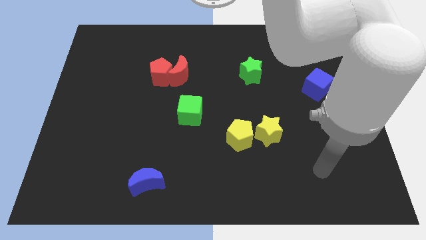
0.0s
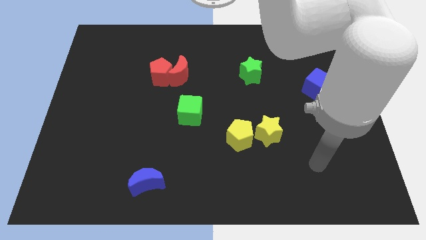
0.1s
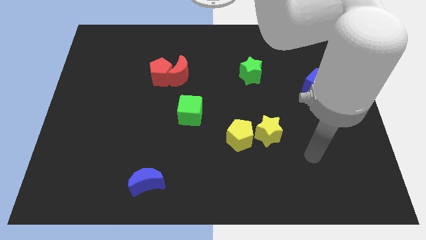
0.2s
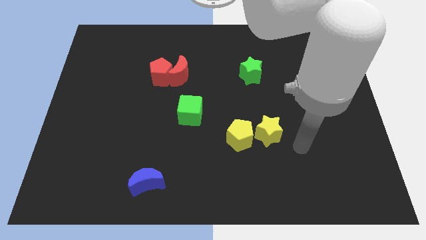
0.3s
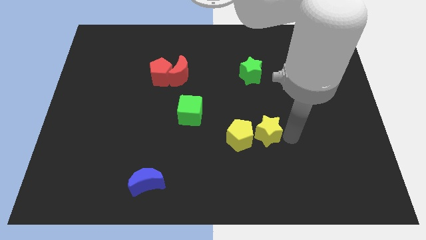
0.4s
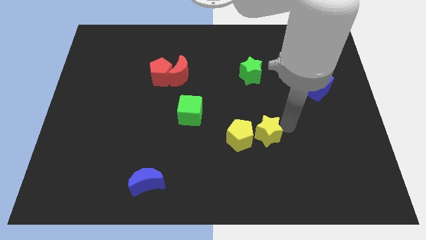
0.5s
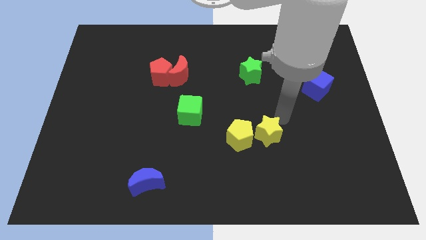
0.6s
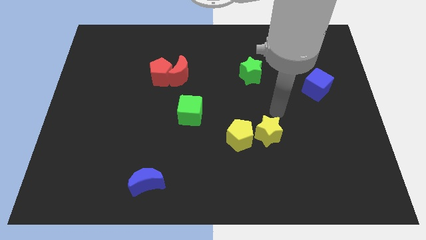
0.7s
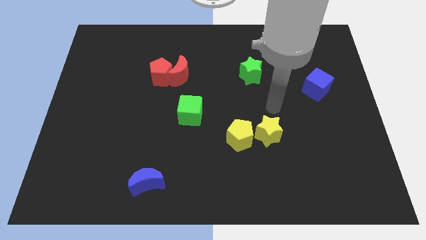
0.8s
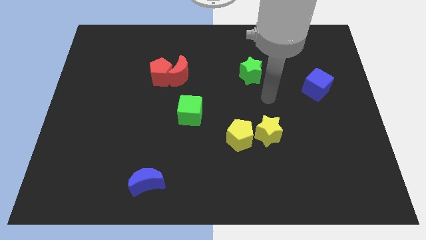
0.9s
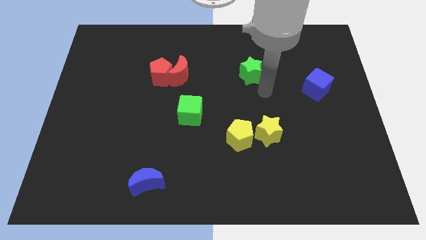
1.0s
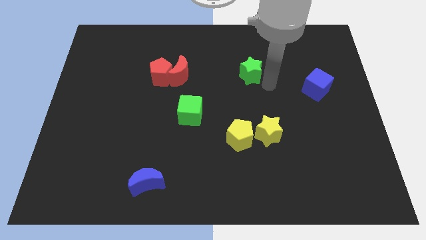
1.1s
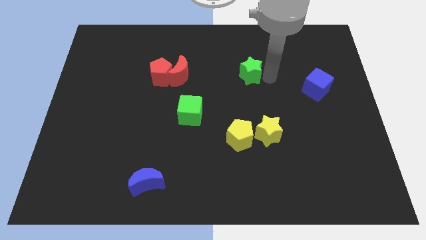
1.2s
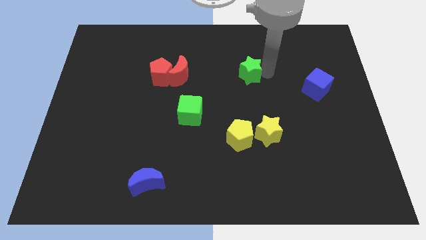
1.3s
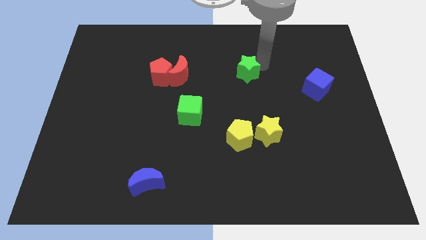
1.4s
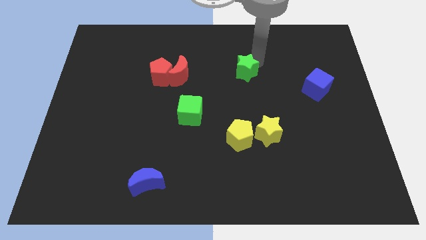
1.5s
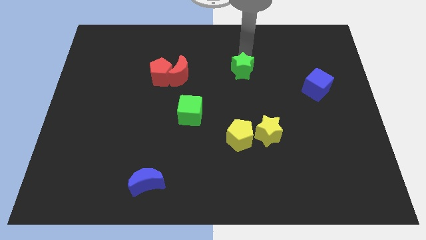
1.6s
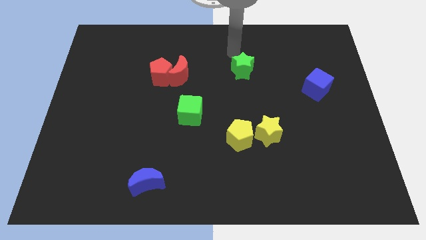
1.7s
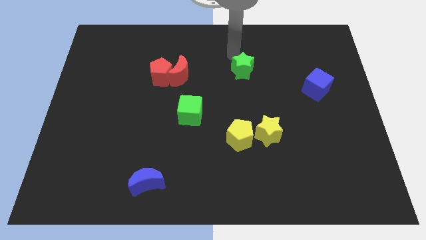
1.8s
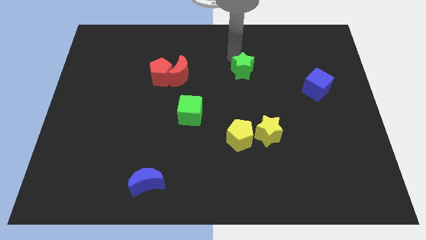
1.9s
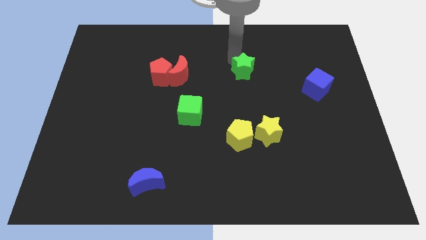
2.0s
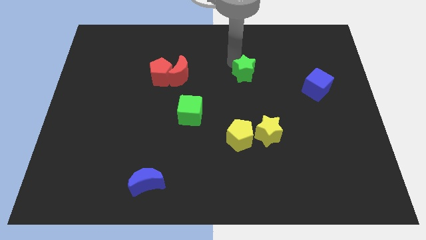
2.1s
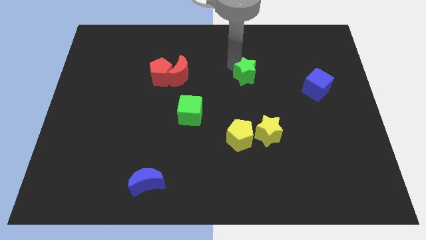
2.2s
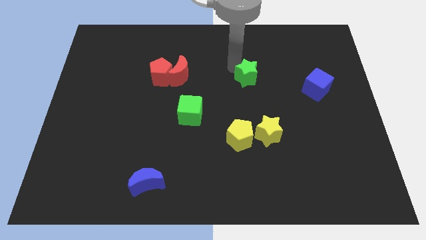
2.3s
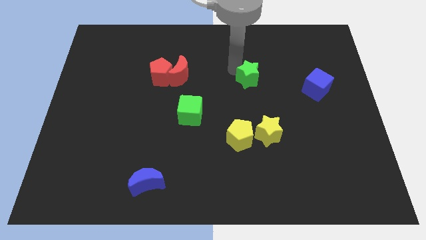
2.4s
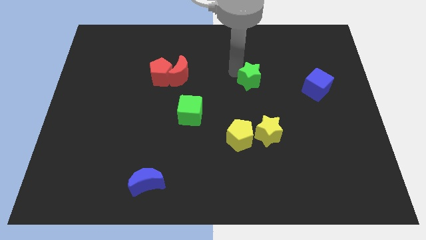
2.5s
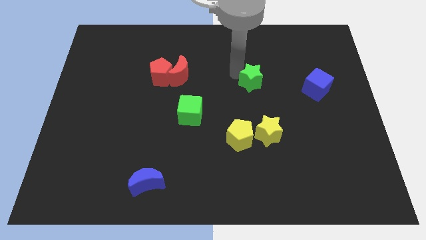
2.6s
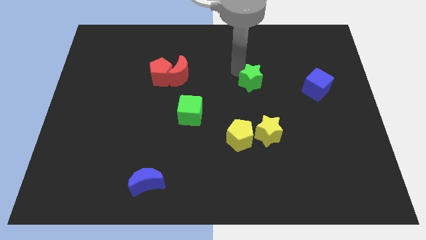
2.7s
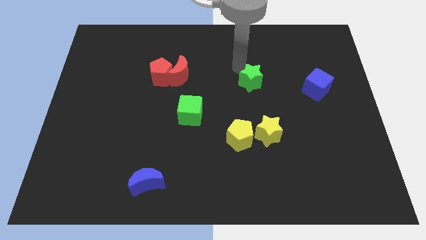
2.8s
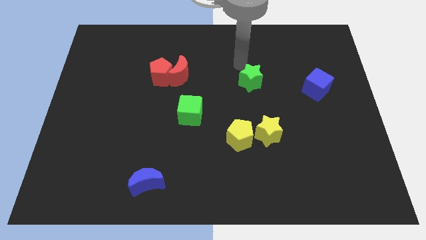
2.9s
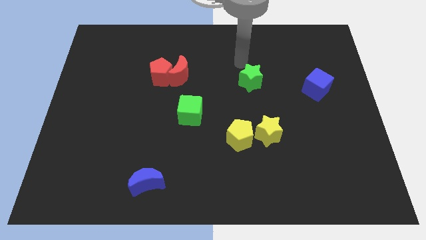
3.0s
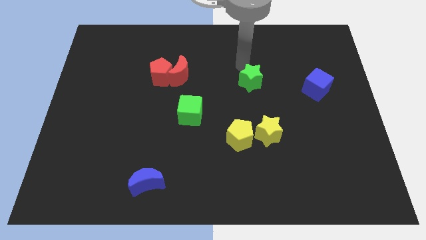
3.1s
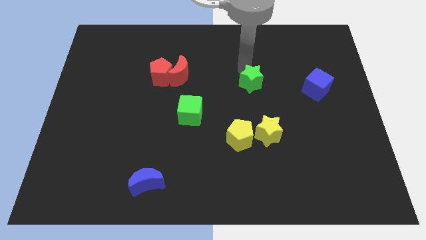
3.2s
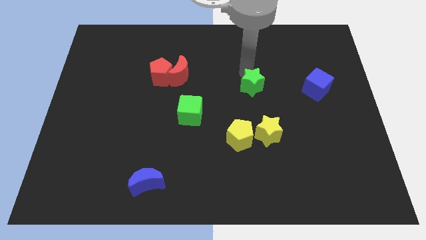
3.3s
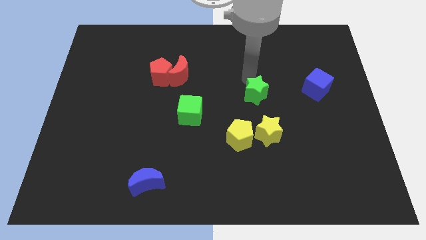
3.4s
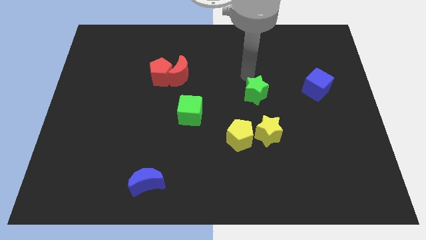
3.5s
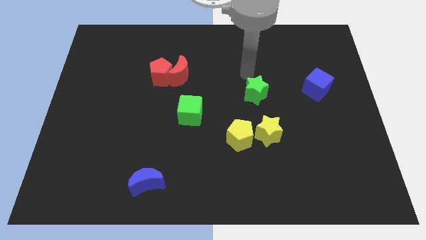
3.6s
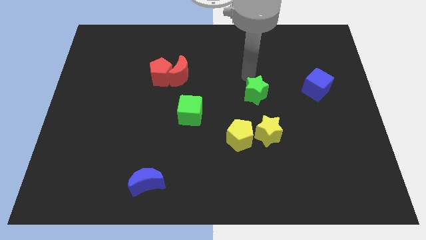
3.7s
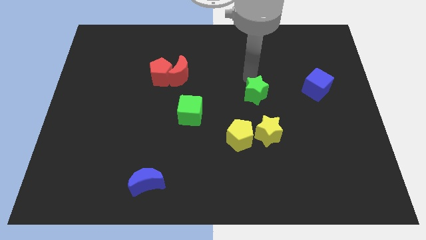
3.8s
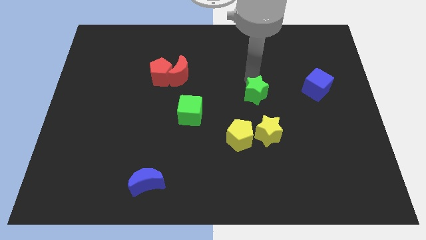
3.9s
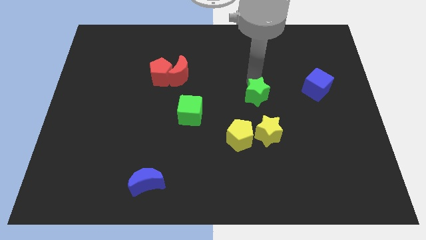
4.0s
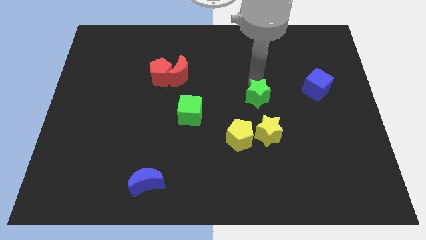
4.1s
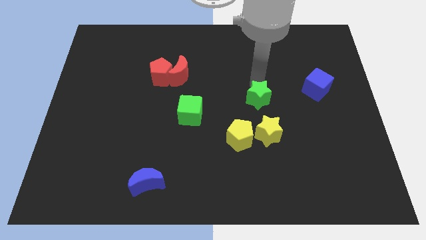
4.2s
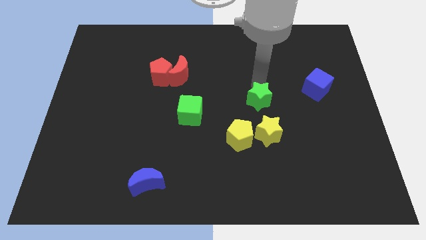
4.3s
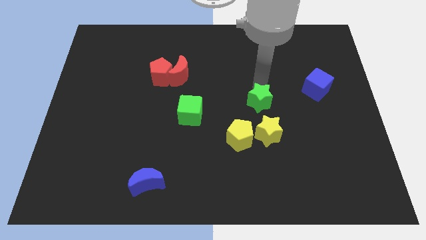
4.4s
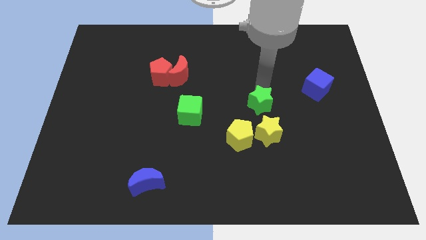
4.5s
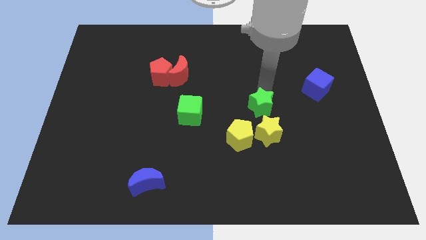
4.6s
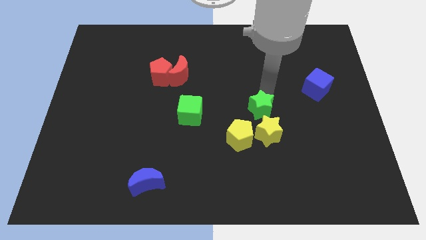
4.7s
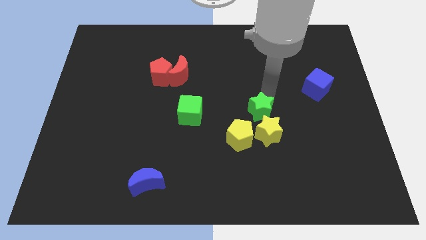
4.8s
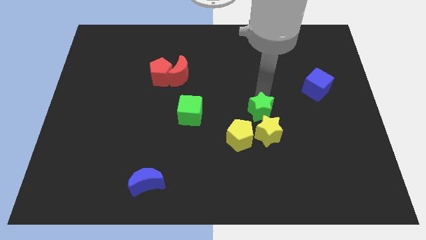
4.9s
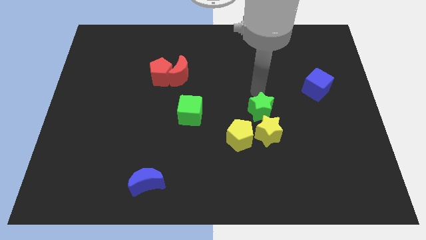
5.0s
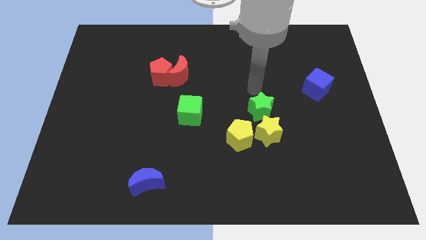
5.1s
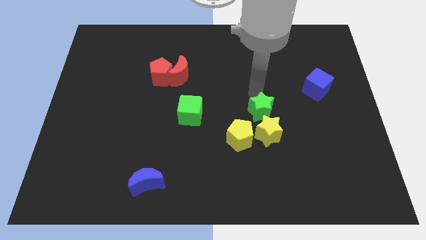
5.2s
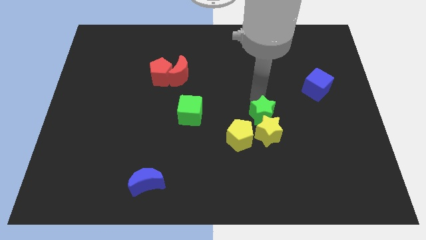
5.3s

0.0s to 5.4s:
slide the green star close to the yellow star

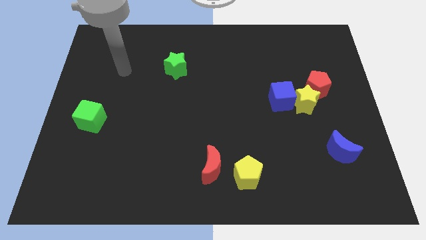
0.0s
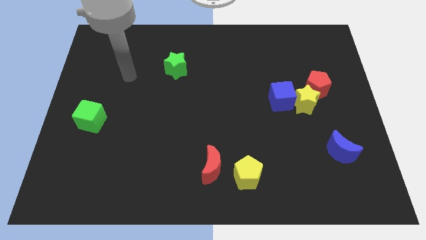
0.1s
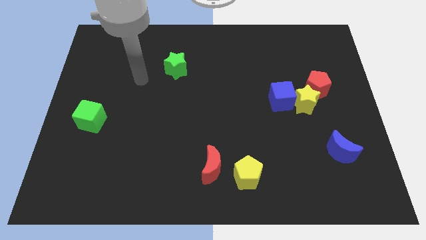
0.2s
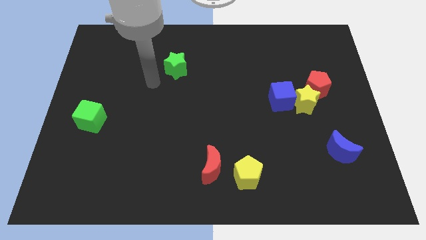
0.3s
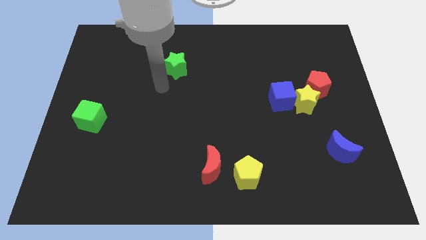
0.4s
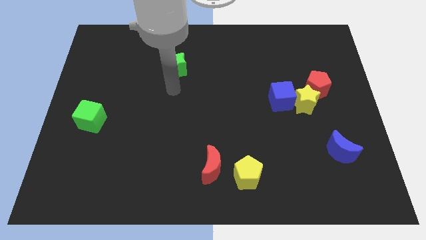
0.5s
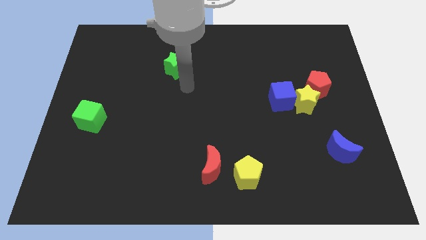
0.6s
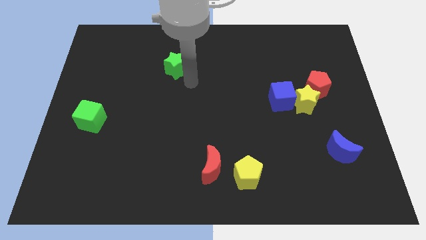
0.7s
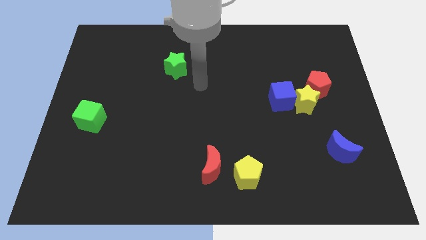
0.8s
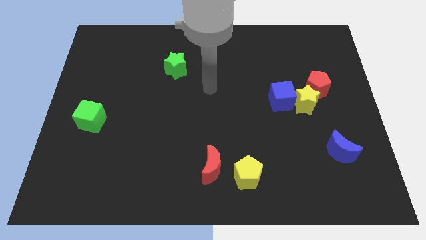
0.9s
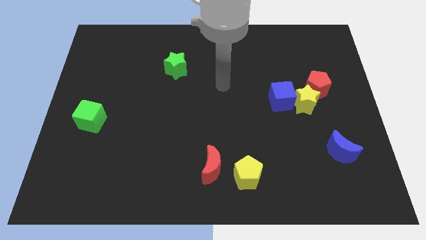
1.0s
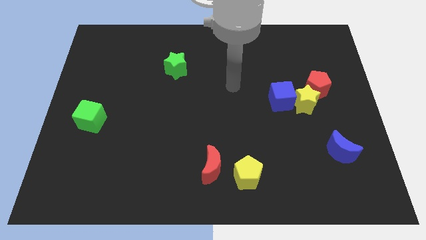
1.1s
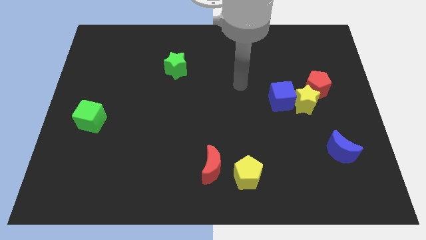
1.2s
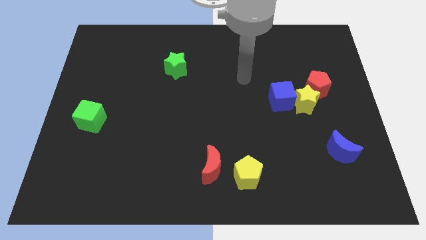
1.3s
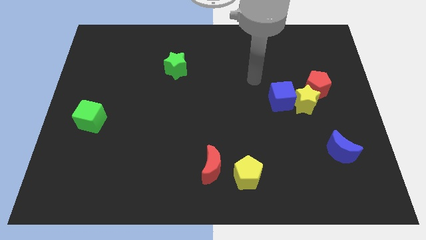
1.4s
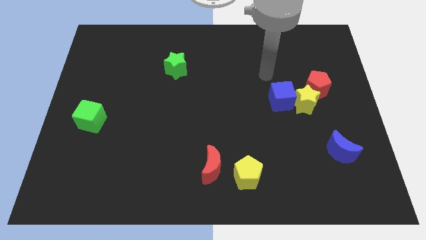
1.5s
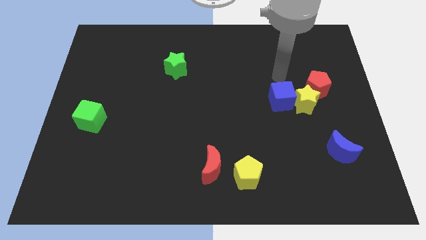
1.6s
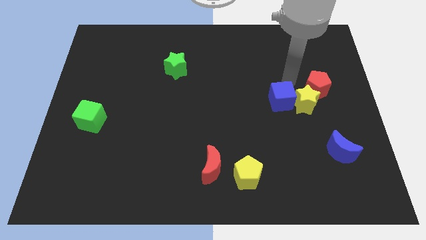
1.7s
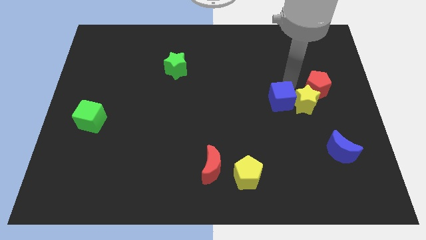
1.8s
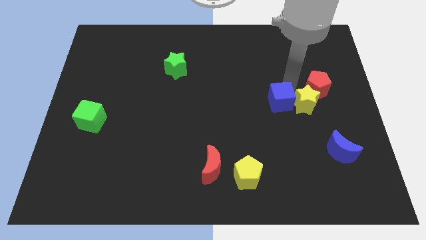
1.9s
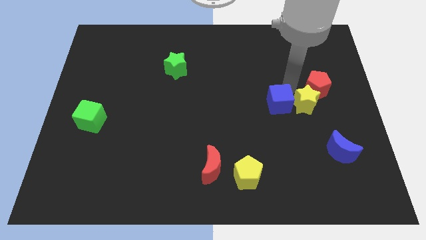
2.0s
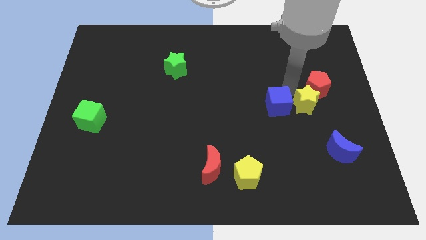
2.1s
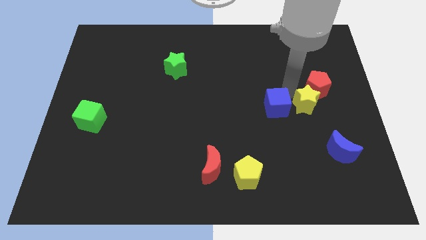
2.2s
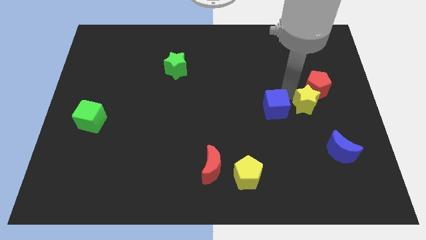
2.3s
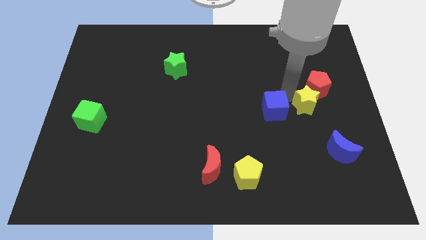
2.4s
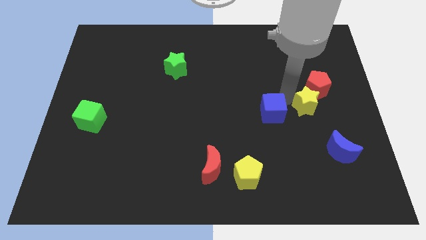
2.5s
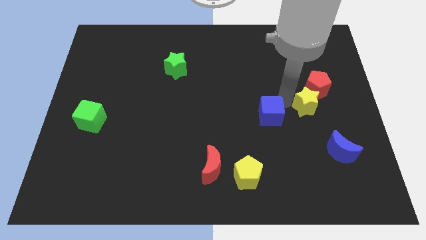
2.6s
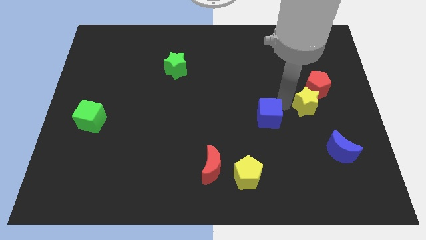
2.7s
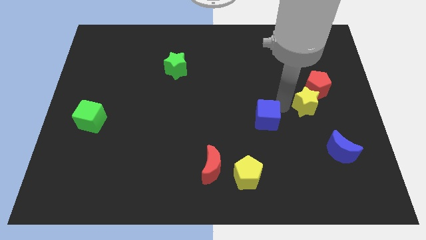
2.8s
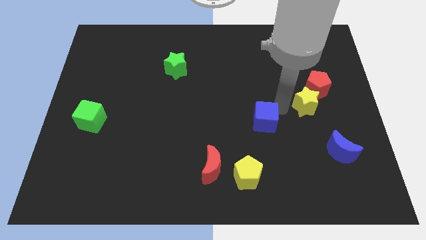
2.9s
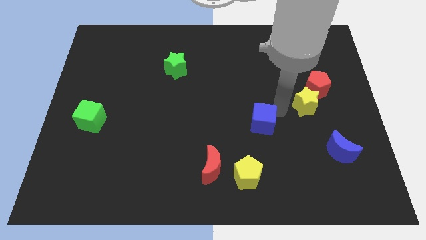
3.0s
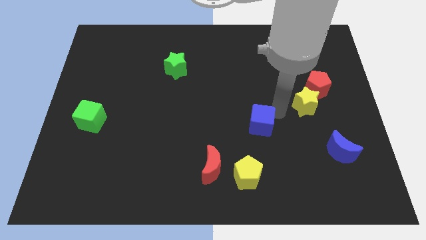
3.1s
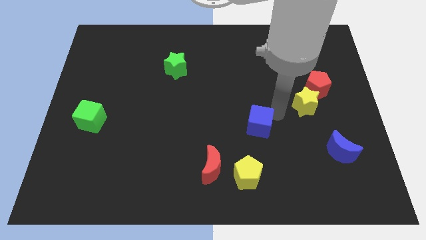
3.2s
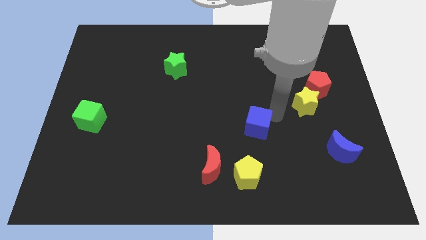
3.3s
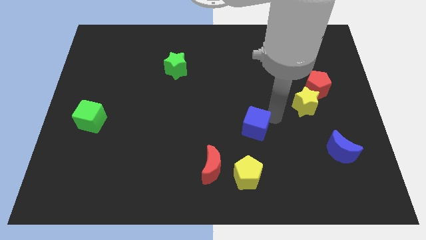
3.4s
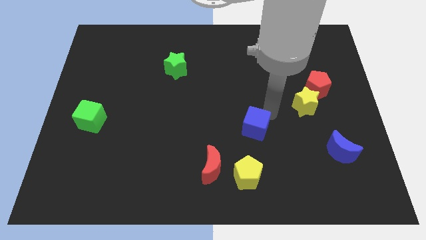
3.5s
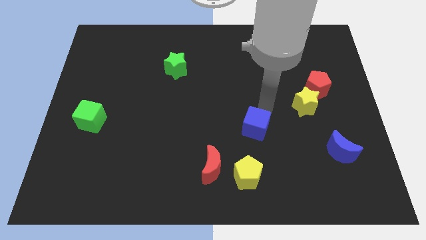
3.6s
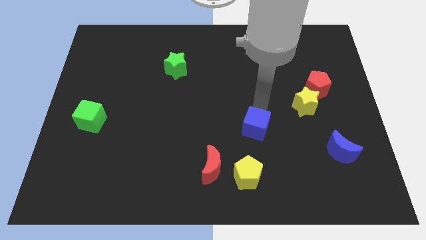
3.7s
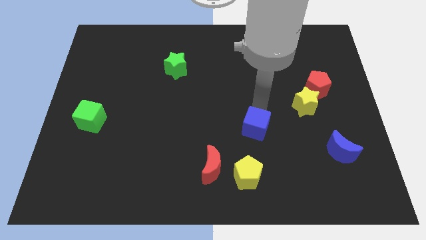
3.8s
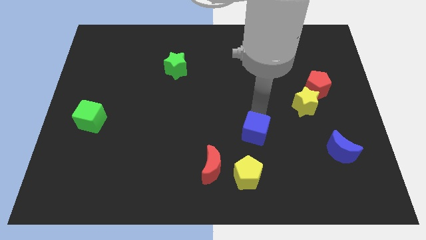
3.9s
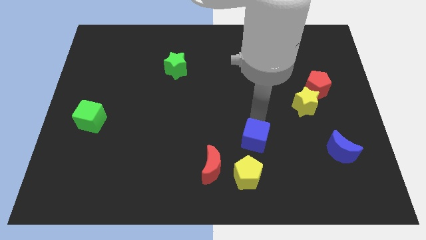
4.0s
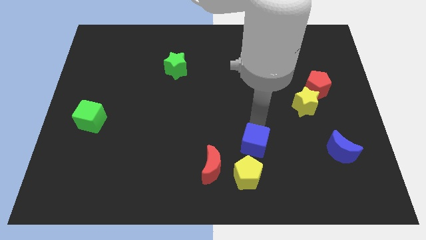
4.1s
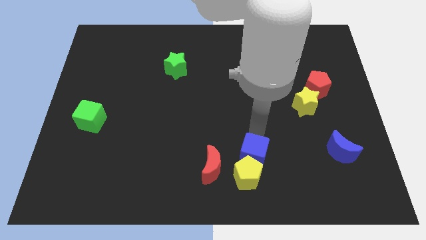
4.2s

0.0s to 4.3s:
move the blue cube towards the yellow pentagon
